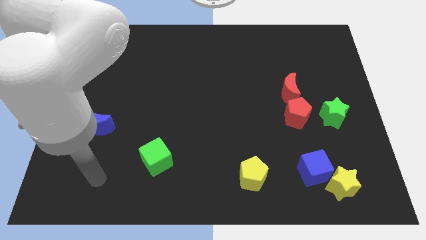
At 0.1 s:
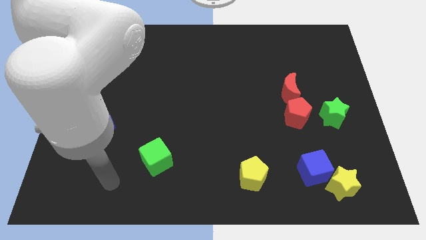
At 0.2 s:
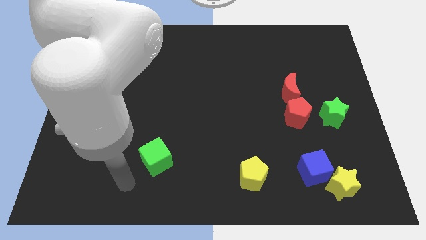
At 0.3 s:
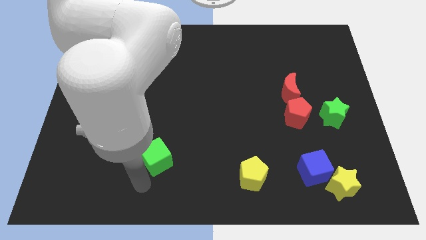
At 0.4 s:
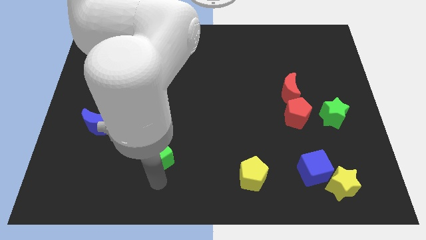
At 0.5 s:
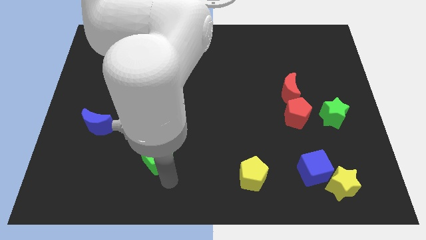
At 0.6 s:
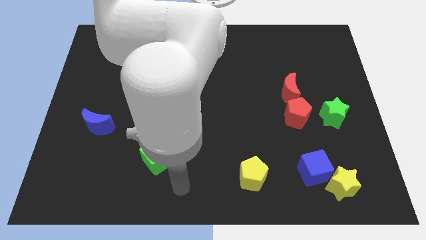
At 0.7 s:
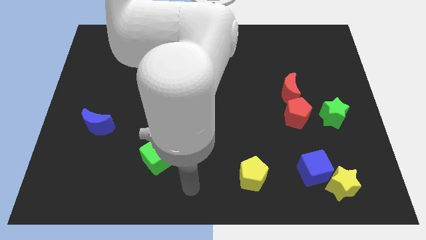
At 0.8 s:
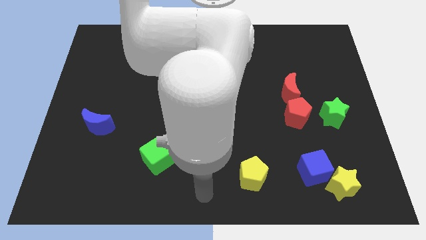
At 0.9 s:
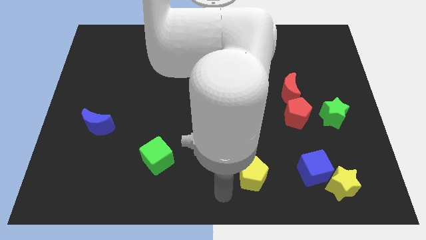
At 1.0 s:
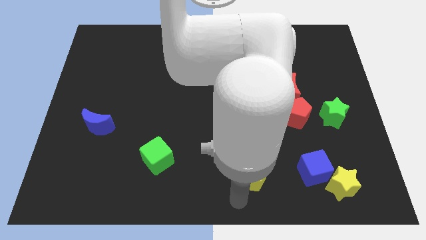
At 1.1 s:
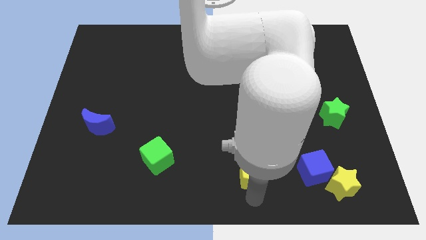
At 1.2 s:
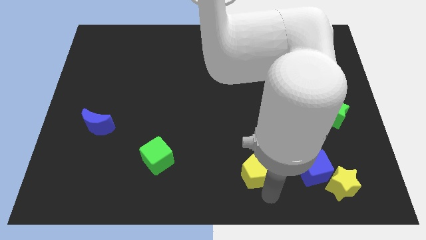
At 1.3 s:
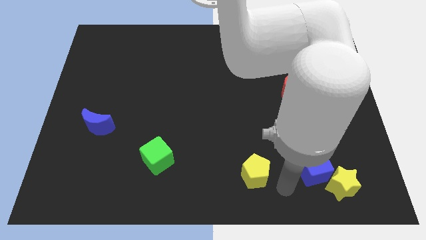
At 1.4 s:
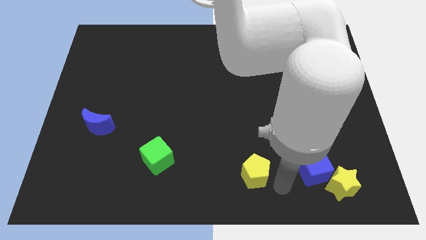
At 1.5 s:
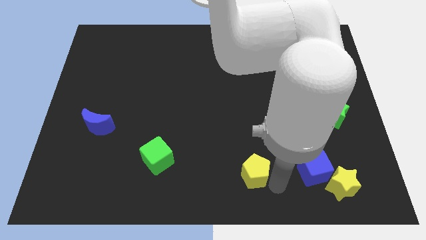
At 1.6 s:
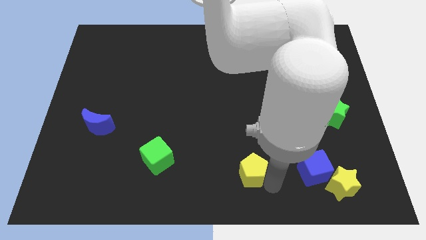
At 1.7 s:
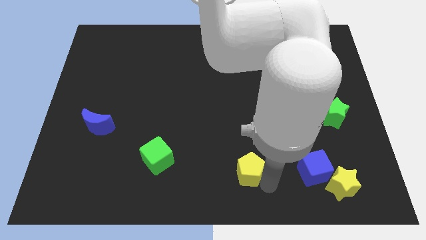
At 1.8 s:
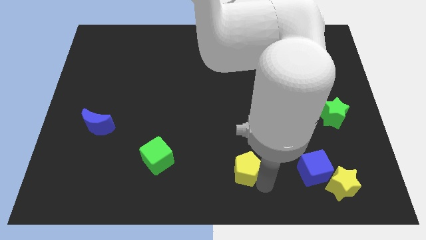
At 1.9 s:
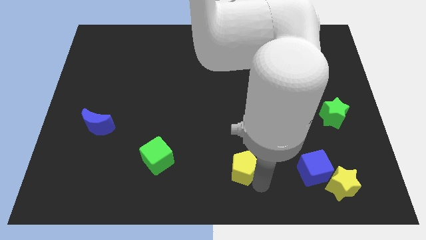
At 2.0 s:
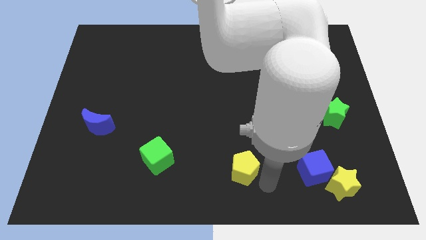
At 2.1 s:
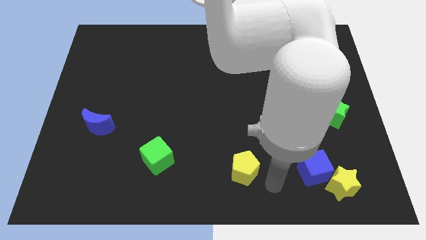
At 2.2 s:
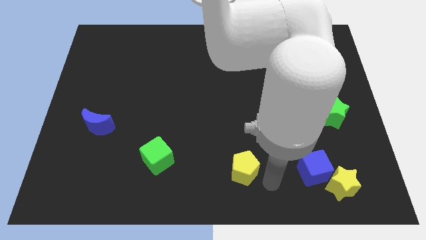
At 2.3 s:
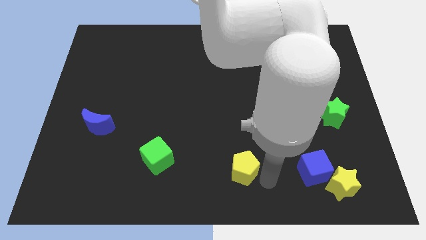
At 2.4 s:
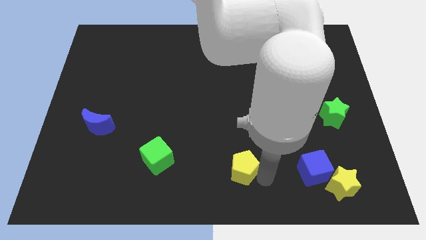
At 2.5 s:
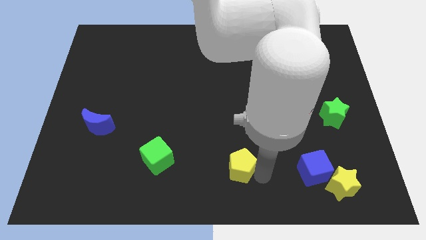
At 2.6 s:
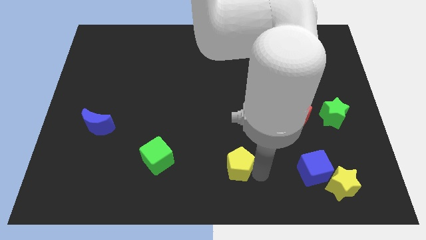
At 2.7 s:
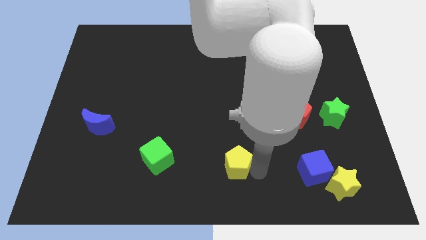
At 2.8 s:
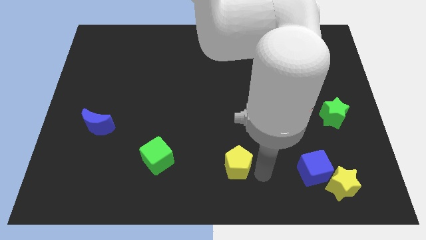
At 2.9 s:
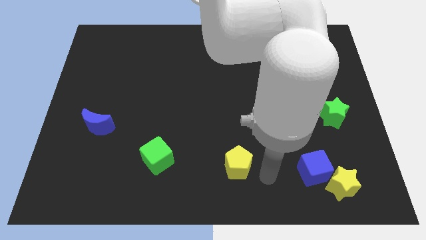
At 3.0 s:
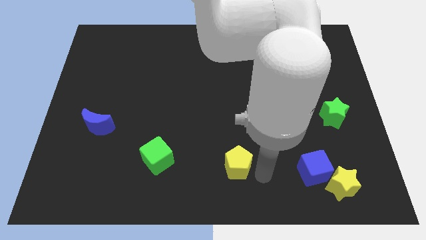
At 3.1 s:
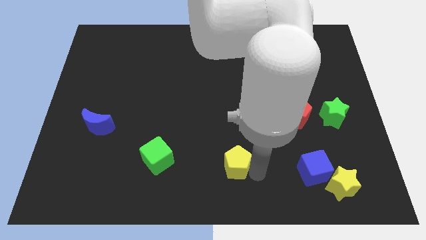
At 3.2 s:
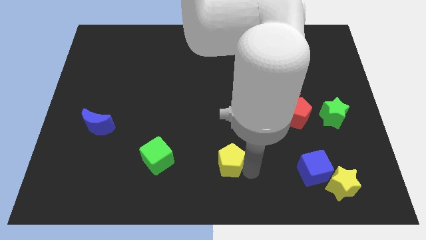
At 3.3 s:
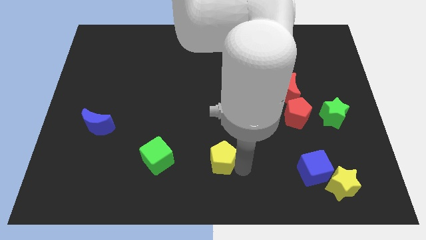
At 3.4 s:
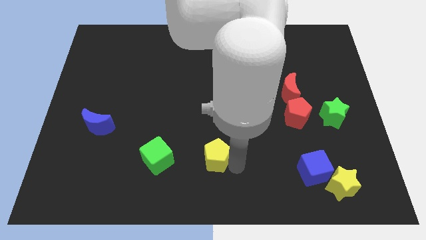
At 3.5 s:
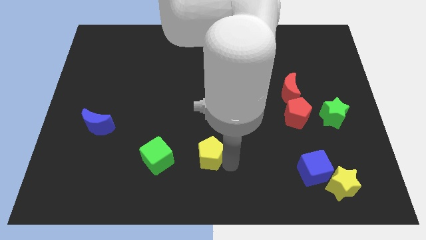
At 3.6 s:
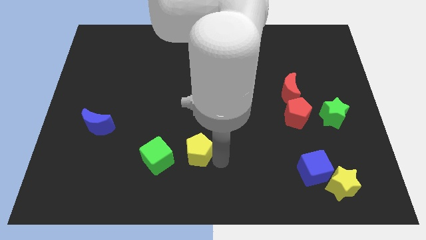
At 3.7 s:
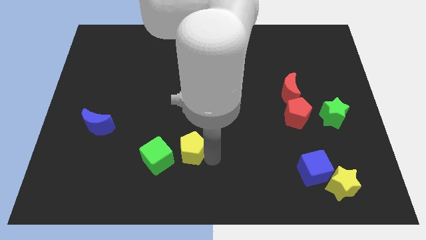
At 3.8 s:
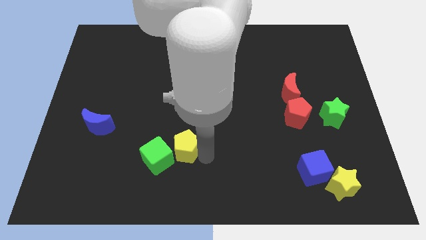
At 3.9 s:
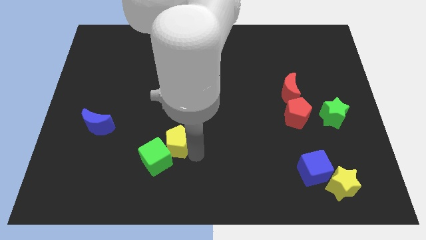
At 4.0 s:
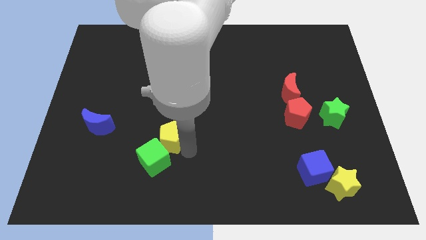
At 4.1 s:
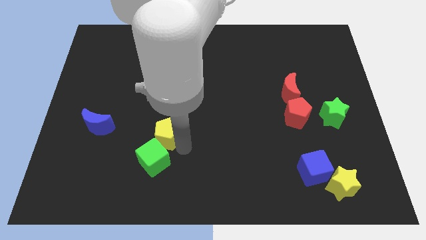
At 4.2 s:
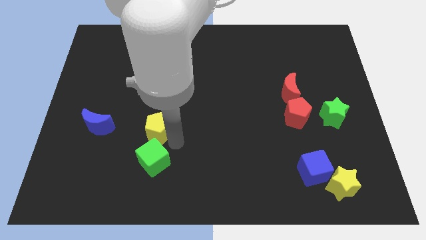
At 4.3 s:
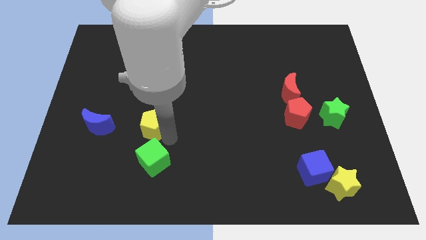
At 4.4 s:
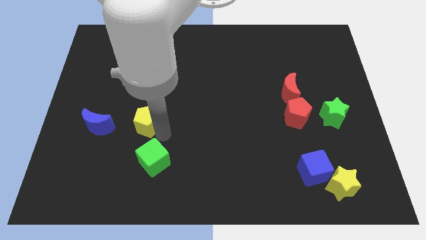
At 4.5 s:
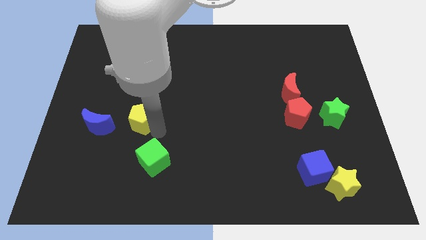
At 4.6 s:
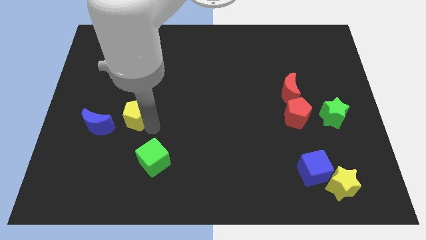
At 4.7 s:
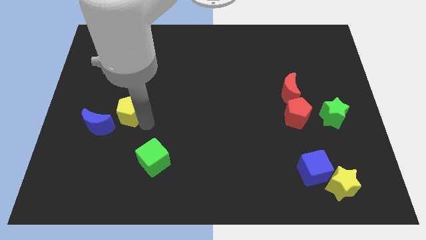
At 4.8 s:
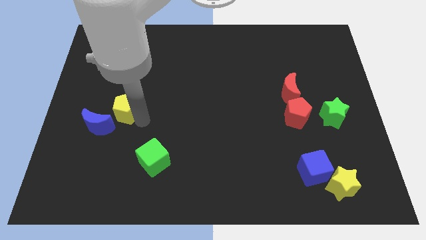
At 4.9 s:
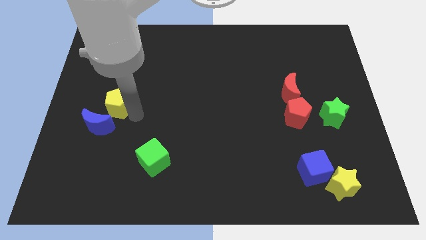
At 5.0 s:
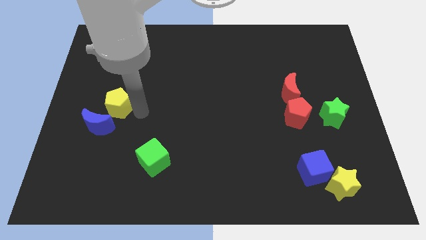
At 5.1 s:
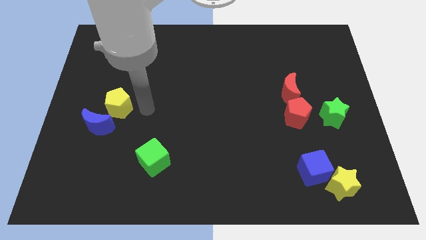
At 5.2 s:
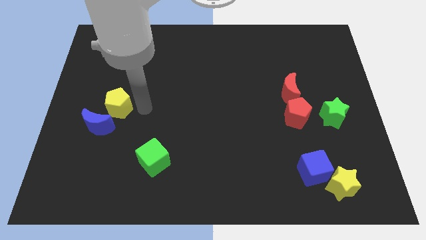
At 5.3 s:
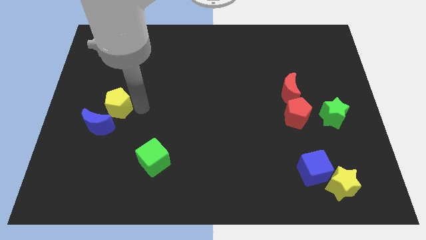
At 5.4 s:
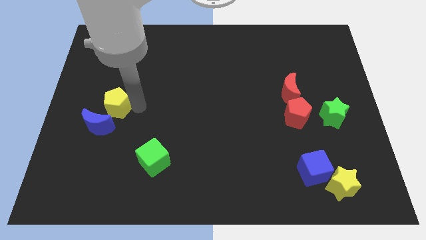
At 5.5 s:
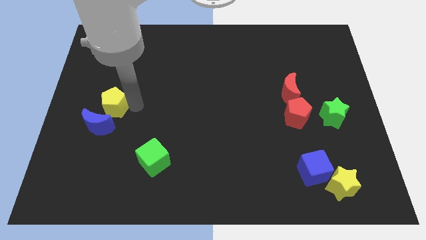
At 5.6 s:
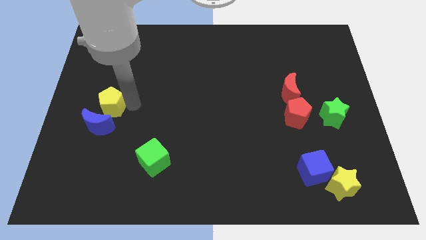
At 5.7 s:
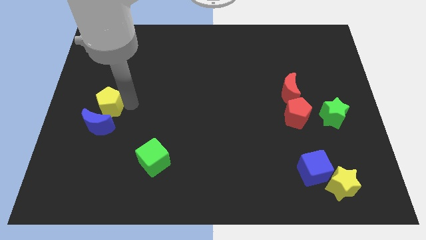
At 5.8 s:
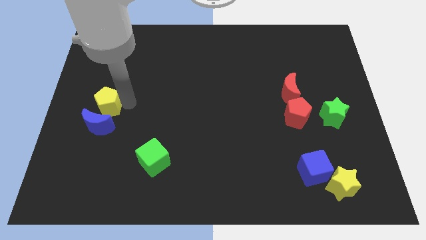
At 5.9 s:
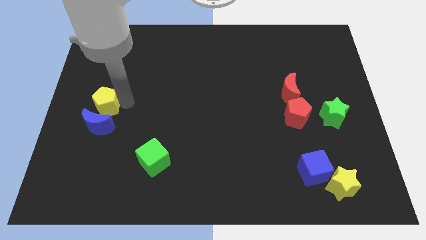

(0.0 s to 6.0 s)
push the yellow pentagon to the left side
